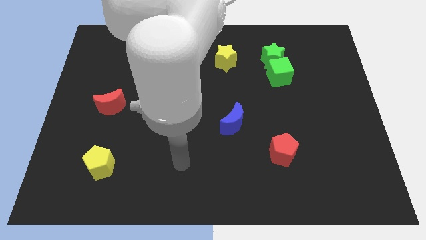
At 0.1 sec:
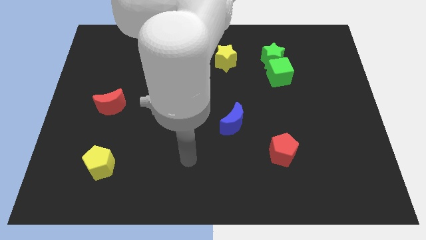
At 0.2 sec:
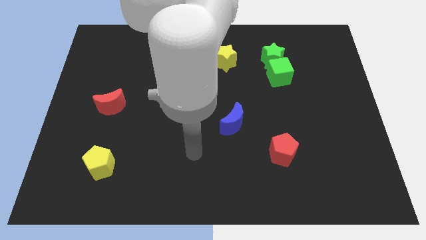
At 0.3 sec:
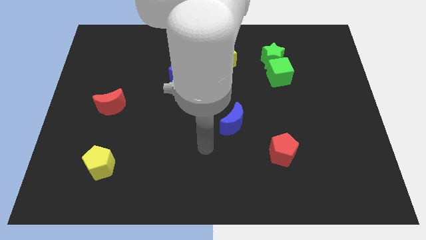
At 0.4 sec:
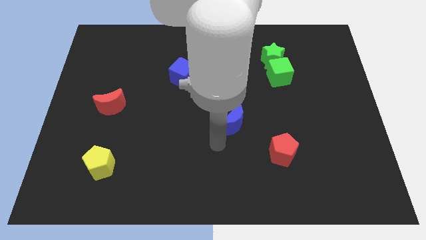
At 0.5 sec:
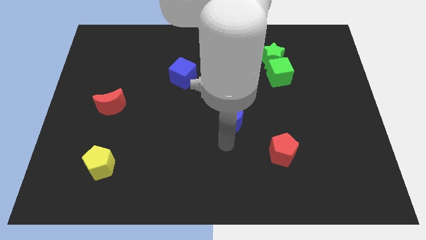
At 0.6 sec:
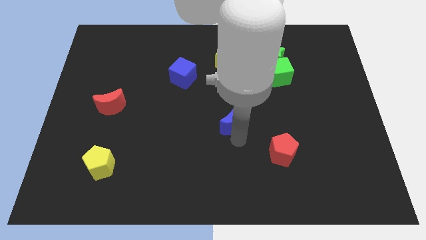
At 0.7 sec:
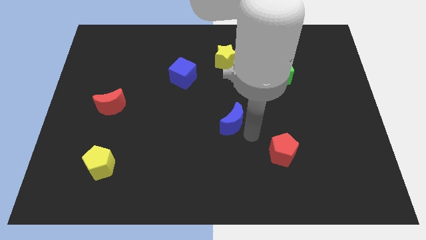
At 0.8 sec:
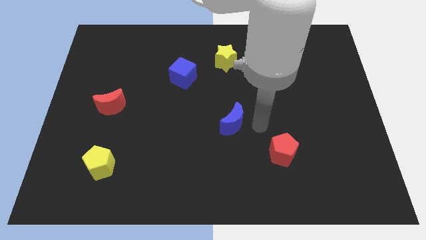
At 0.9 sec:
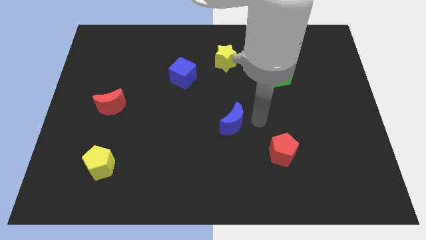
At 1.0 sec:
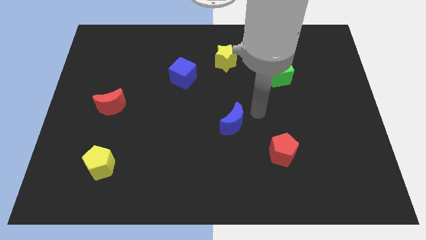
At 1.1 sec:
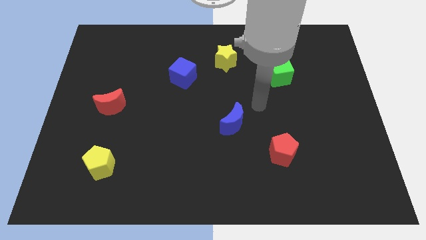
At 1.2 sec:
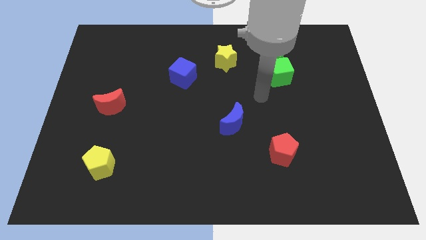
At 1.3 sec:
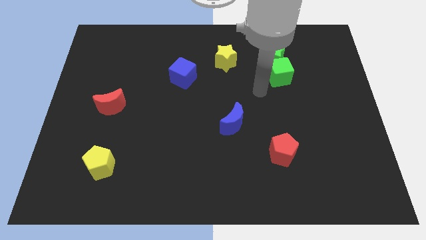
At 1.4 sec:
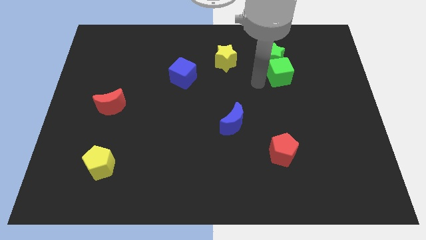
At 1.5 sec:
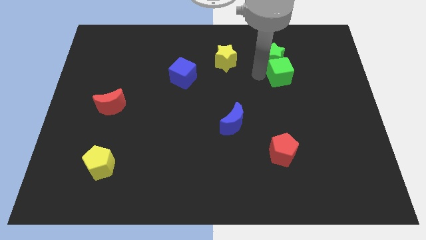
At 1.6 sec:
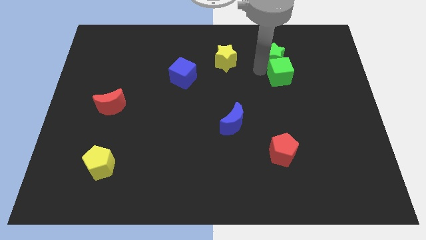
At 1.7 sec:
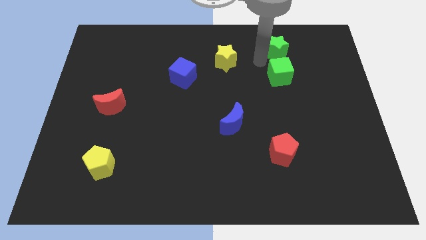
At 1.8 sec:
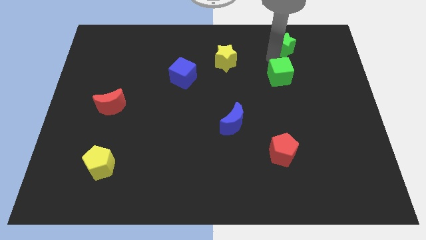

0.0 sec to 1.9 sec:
move the green cube away from the green star

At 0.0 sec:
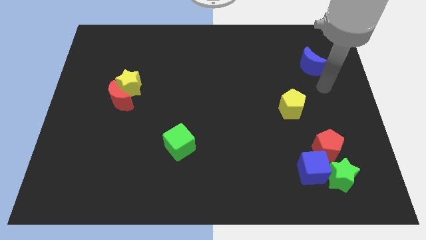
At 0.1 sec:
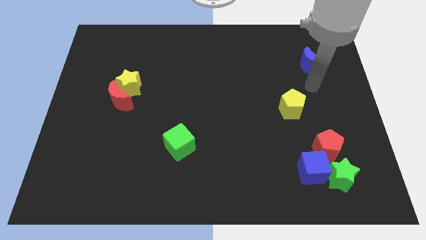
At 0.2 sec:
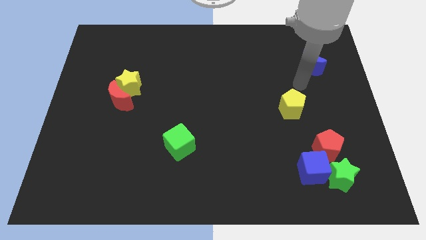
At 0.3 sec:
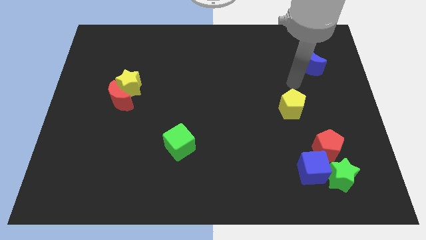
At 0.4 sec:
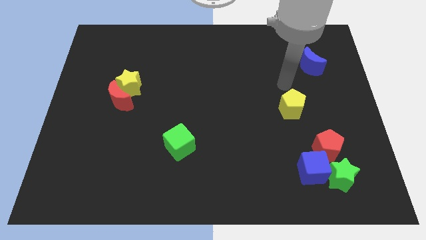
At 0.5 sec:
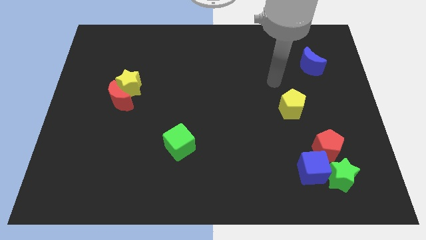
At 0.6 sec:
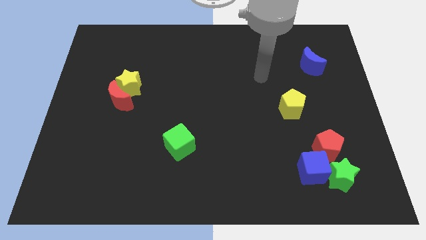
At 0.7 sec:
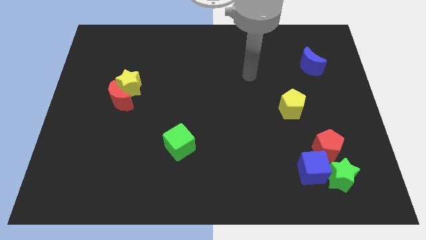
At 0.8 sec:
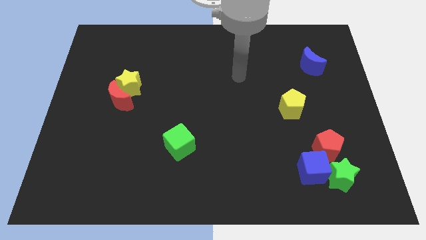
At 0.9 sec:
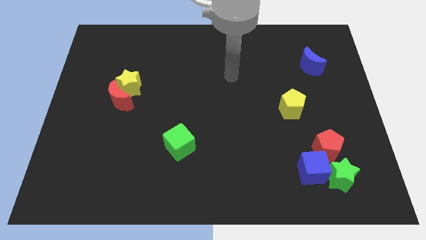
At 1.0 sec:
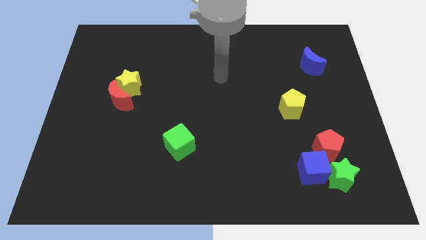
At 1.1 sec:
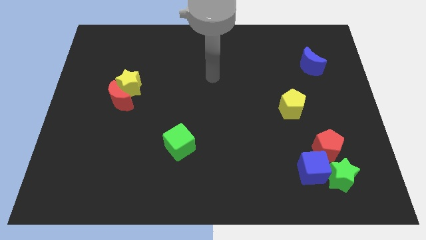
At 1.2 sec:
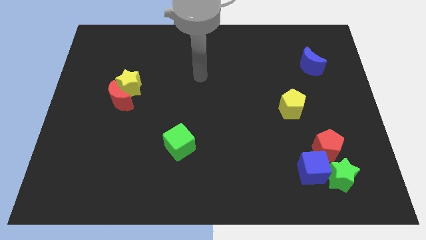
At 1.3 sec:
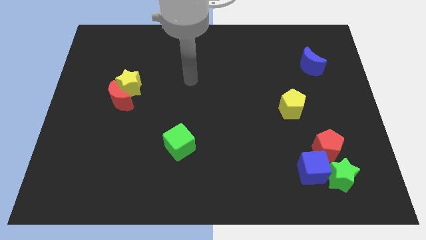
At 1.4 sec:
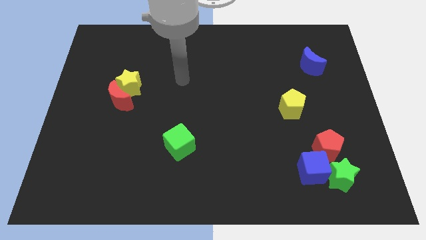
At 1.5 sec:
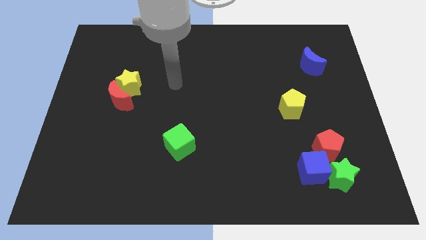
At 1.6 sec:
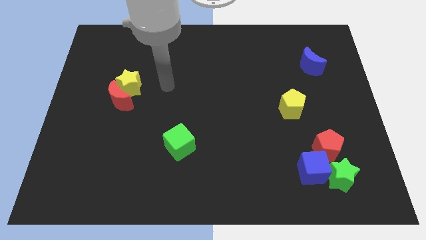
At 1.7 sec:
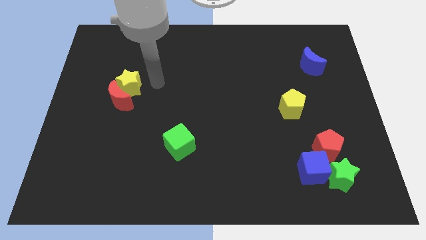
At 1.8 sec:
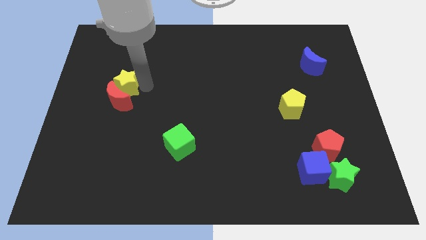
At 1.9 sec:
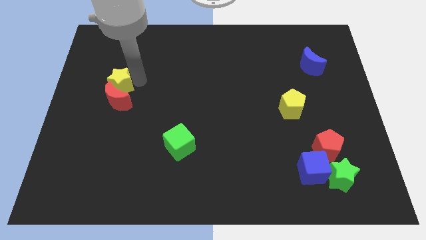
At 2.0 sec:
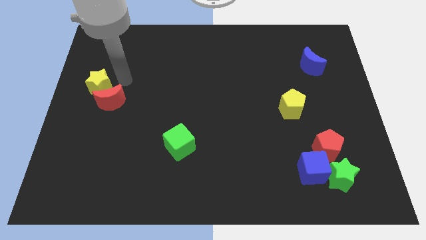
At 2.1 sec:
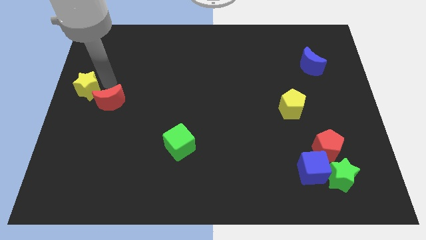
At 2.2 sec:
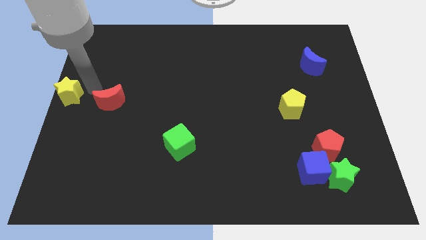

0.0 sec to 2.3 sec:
pull the red moon apart from the yellow star

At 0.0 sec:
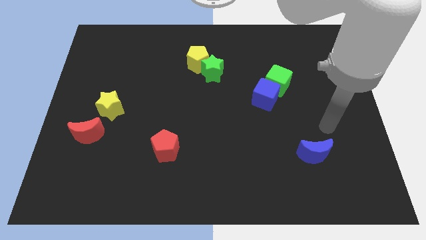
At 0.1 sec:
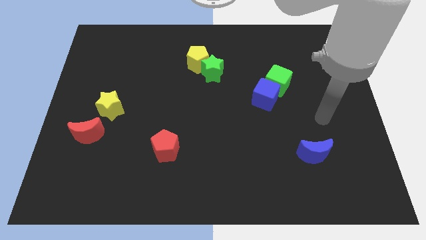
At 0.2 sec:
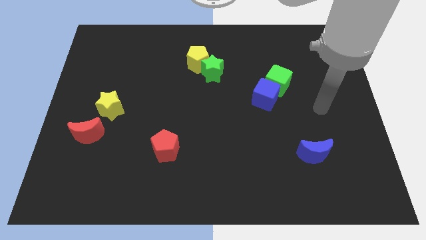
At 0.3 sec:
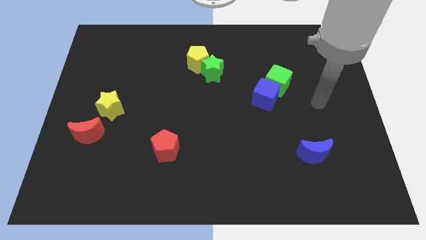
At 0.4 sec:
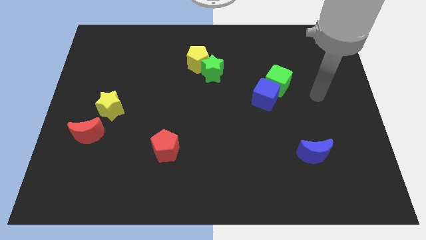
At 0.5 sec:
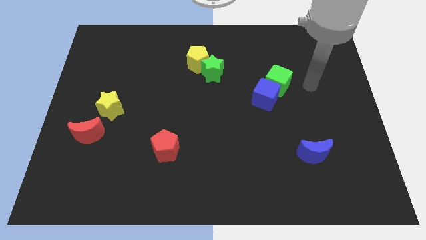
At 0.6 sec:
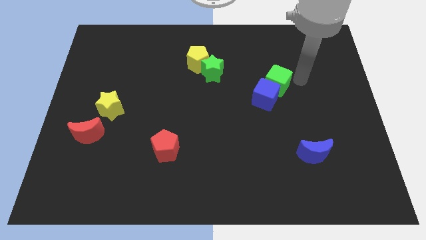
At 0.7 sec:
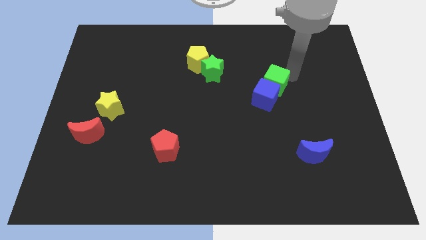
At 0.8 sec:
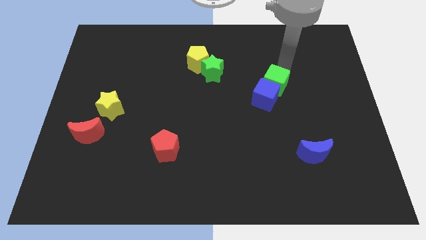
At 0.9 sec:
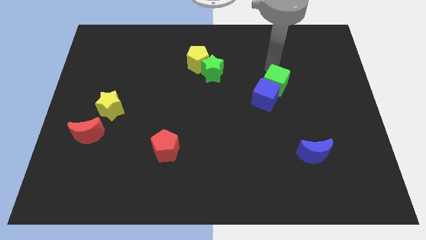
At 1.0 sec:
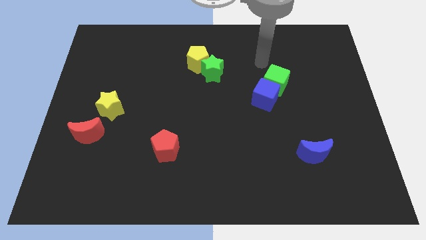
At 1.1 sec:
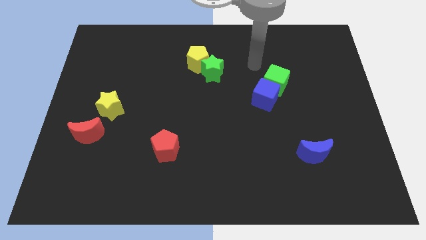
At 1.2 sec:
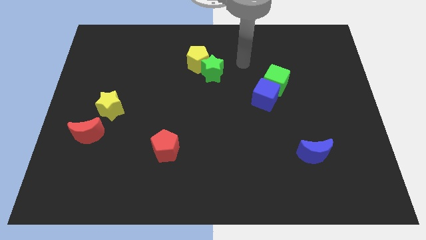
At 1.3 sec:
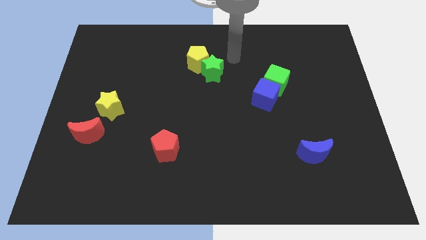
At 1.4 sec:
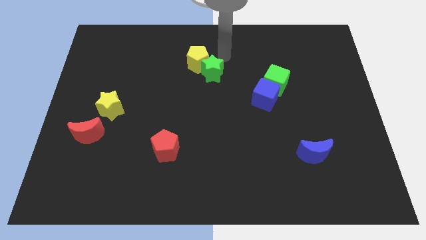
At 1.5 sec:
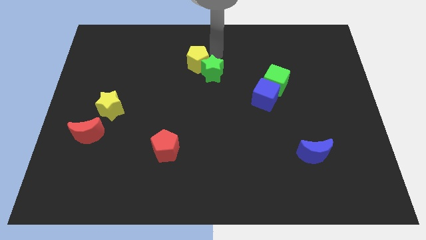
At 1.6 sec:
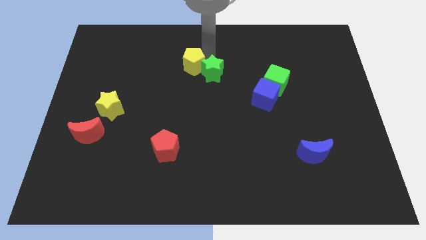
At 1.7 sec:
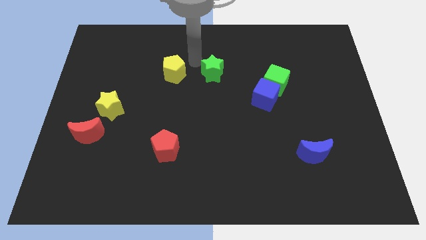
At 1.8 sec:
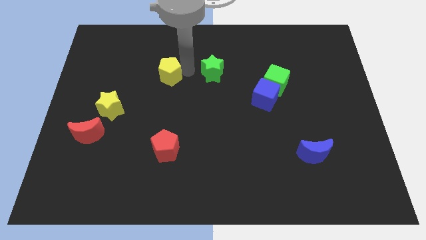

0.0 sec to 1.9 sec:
pull the green star apart from the yellow pentagon

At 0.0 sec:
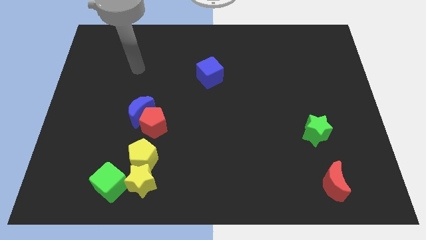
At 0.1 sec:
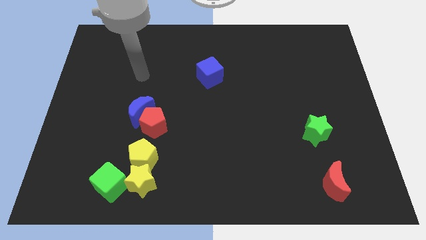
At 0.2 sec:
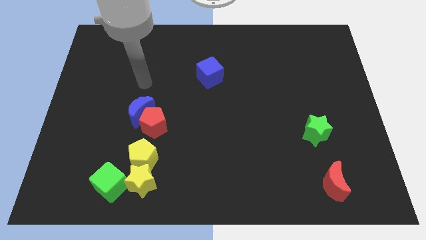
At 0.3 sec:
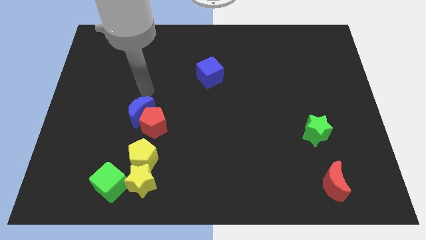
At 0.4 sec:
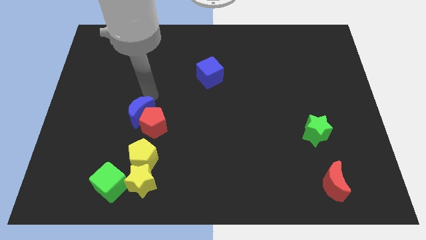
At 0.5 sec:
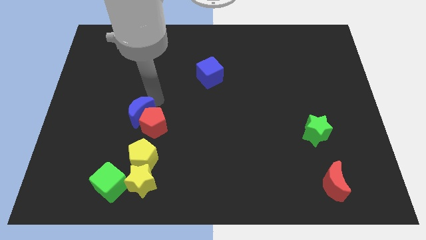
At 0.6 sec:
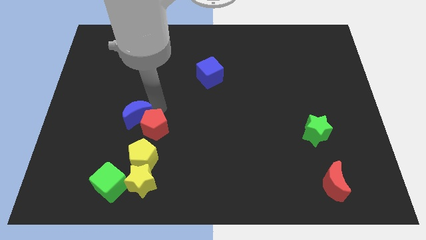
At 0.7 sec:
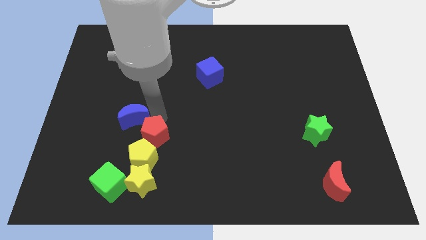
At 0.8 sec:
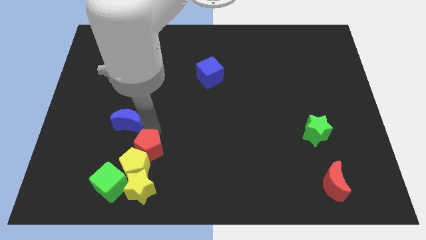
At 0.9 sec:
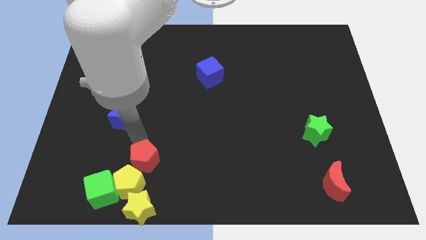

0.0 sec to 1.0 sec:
pull the blue moon apart from the red pentagon

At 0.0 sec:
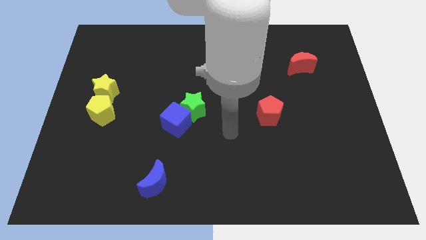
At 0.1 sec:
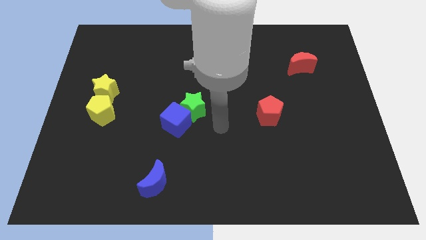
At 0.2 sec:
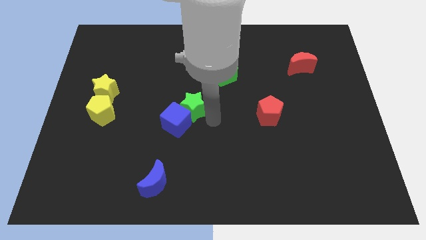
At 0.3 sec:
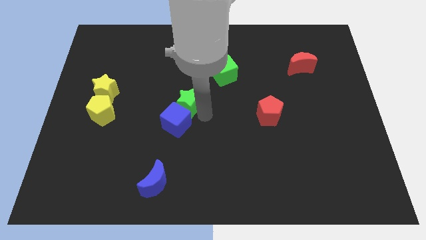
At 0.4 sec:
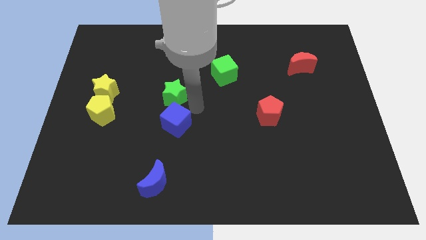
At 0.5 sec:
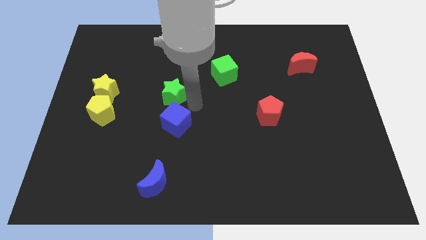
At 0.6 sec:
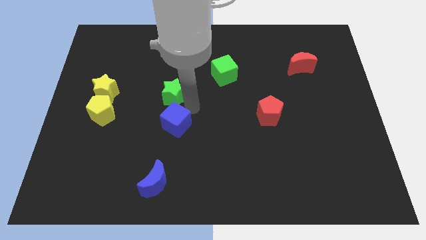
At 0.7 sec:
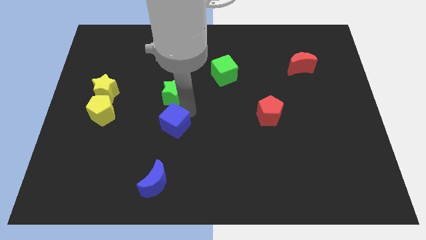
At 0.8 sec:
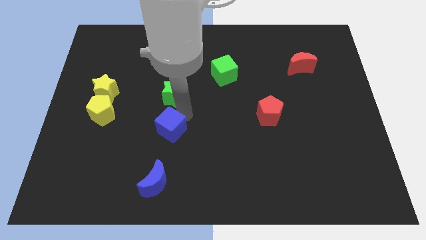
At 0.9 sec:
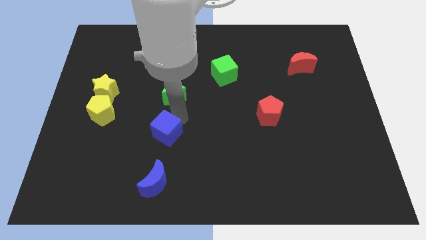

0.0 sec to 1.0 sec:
move the blue cube away from the green star

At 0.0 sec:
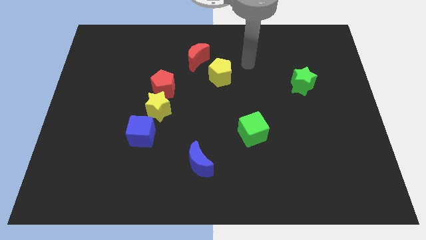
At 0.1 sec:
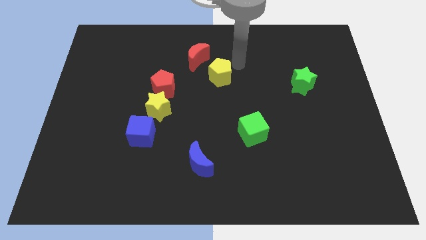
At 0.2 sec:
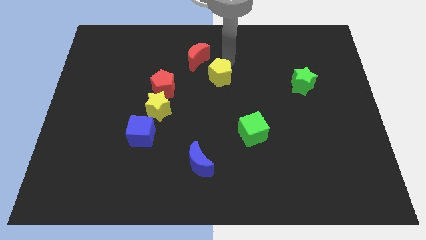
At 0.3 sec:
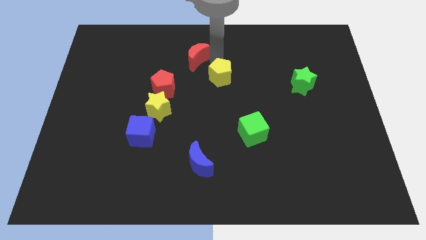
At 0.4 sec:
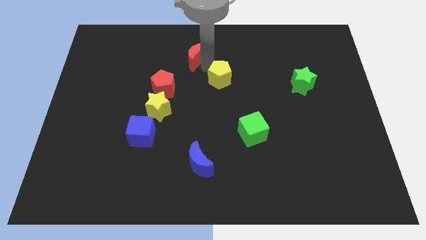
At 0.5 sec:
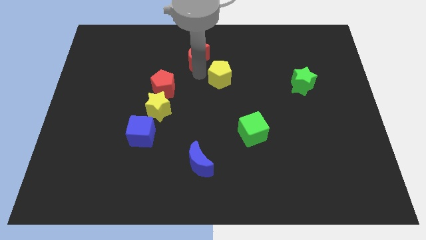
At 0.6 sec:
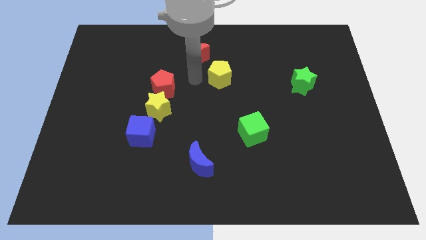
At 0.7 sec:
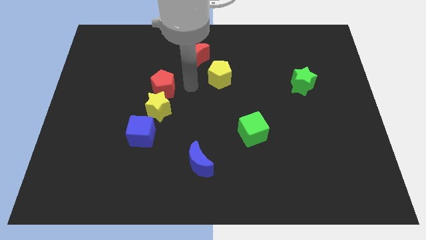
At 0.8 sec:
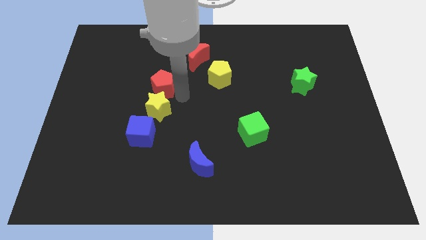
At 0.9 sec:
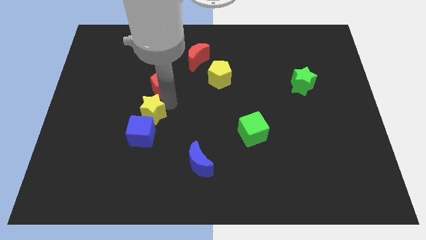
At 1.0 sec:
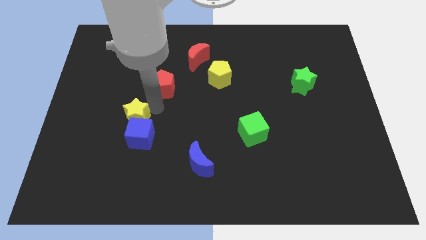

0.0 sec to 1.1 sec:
pull the red pentagon apart from the yellow star
